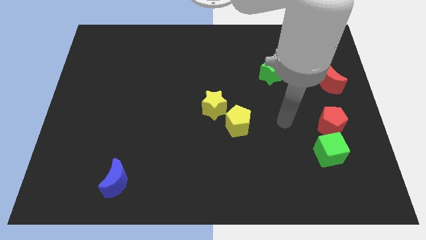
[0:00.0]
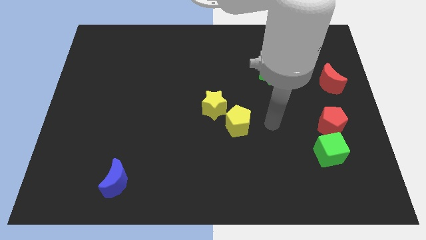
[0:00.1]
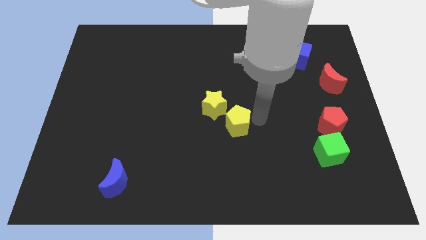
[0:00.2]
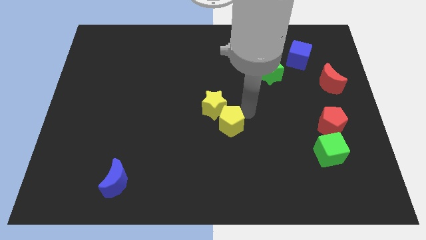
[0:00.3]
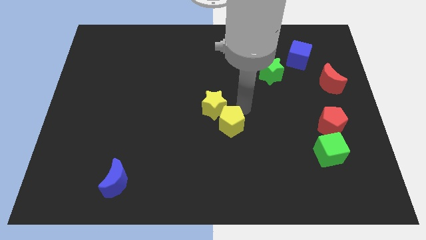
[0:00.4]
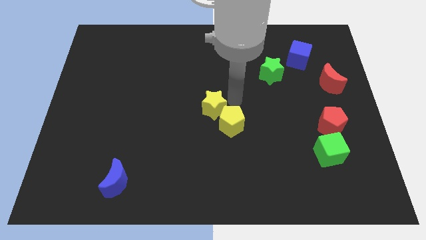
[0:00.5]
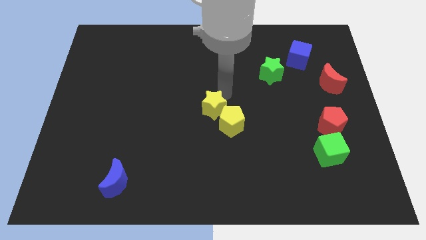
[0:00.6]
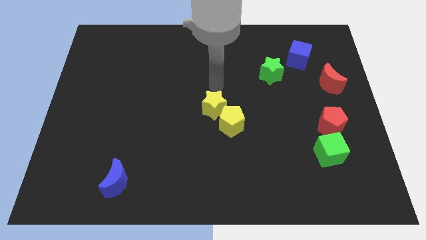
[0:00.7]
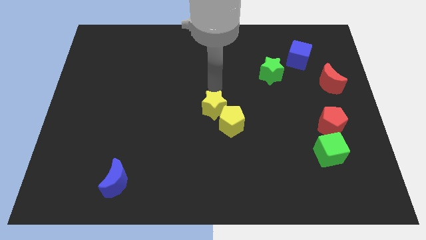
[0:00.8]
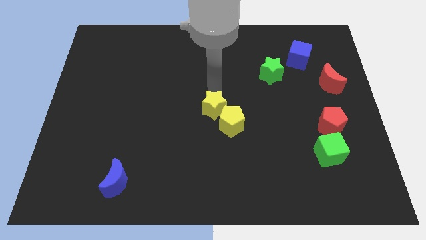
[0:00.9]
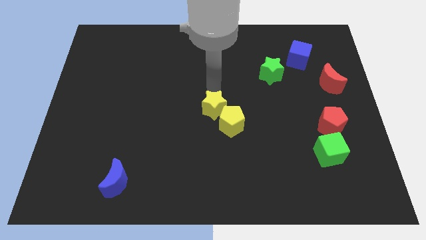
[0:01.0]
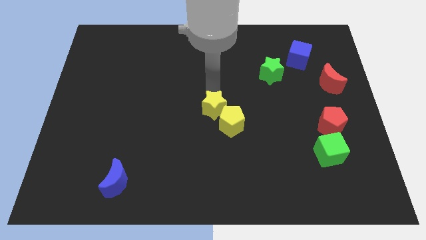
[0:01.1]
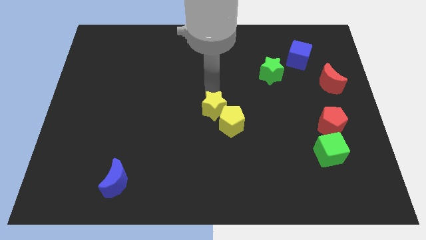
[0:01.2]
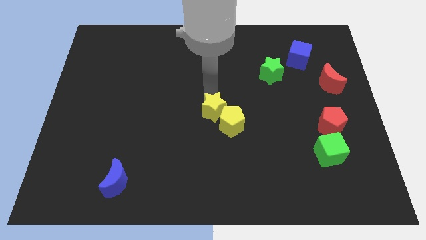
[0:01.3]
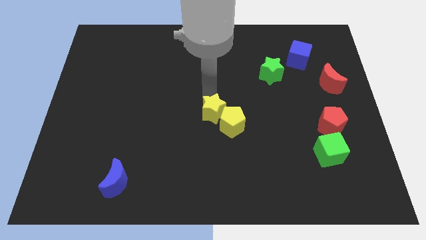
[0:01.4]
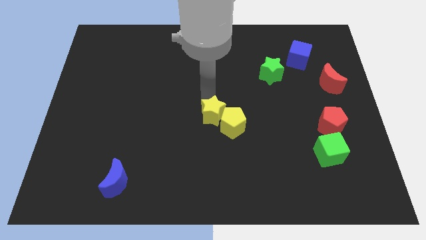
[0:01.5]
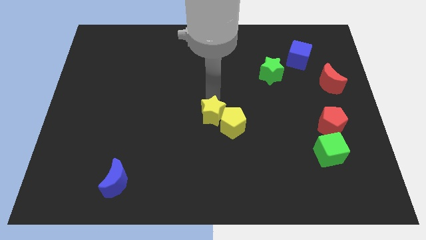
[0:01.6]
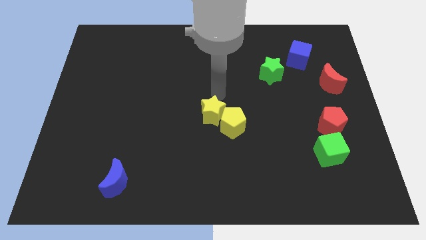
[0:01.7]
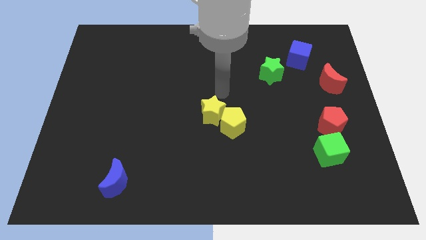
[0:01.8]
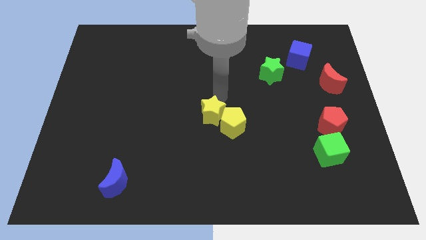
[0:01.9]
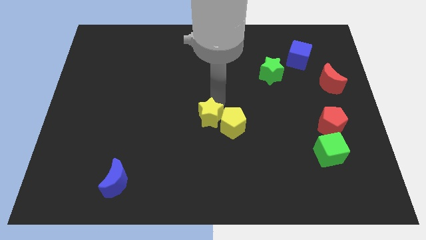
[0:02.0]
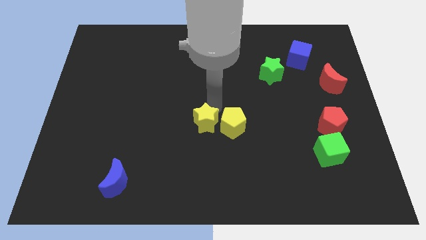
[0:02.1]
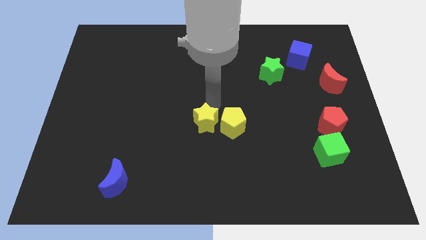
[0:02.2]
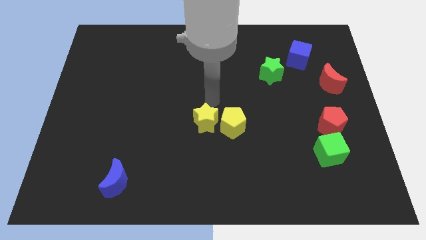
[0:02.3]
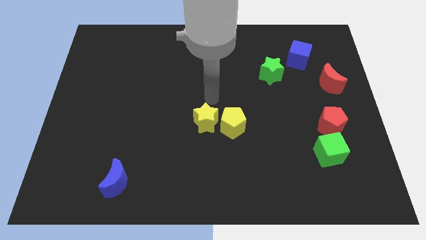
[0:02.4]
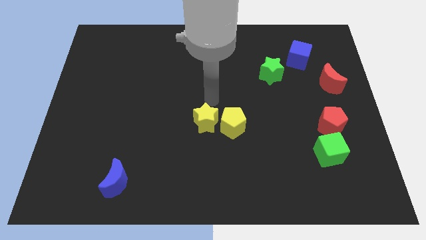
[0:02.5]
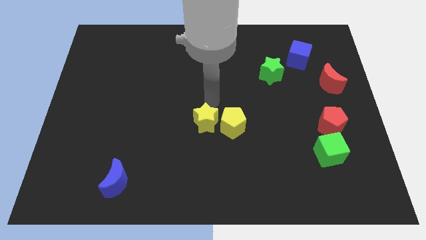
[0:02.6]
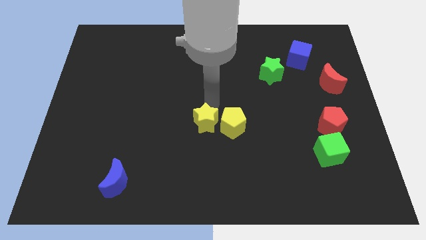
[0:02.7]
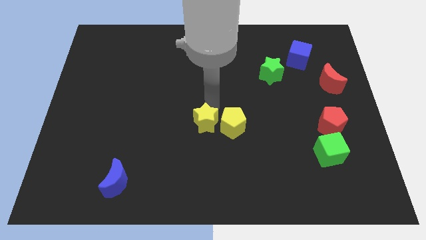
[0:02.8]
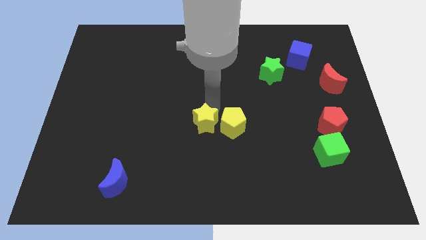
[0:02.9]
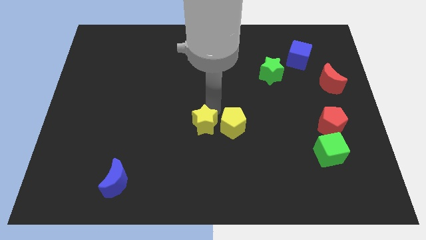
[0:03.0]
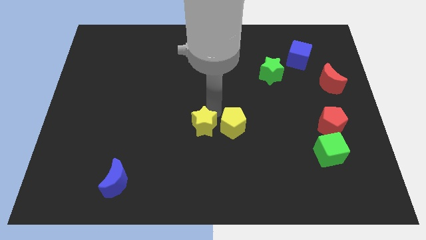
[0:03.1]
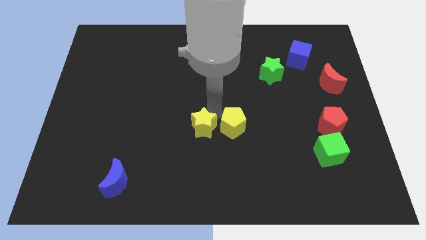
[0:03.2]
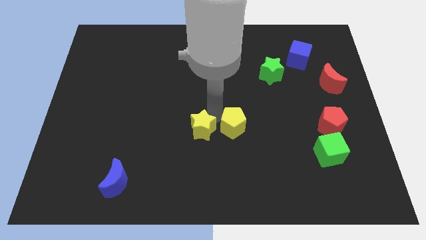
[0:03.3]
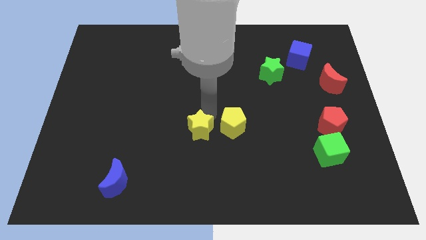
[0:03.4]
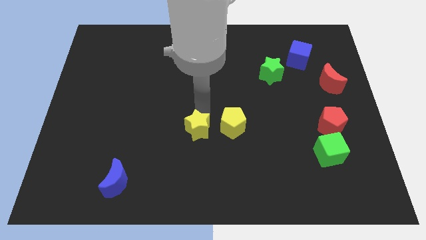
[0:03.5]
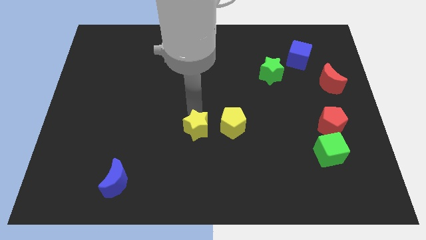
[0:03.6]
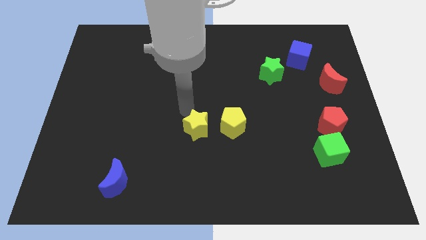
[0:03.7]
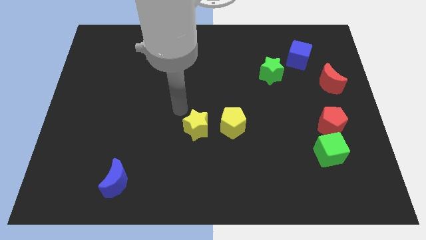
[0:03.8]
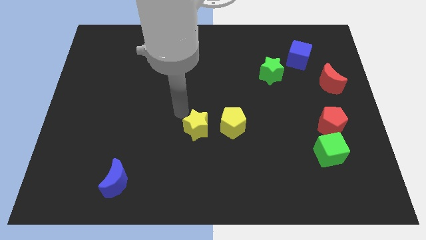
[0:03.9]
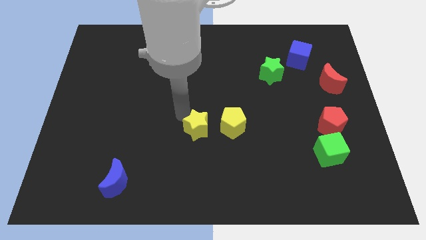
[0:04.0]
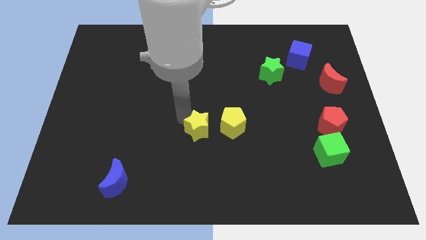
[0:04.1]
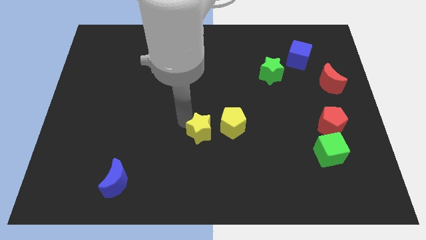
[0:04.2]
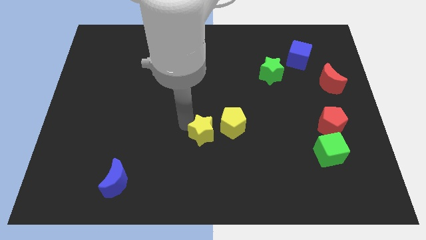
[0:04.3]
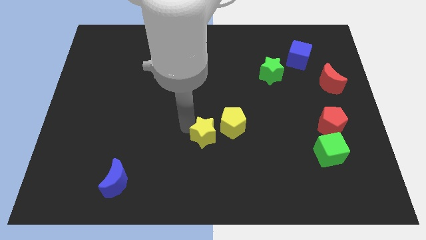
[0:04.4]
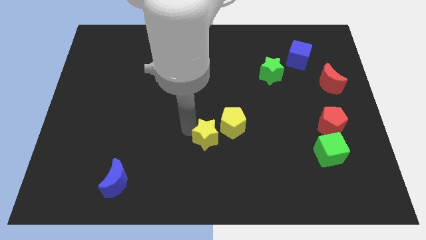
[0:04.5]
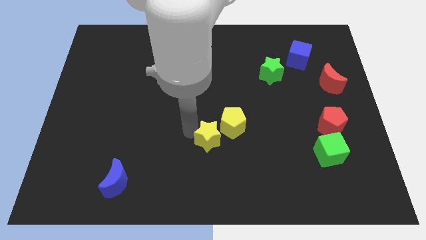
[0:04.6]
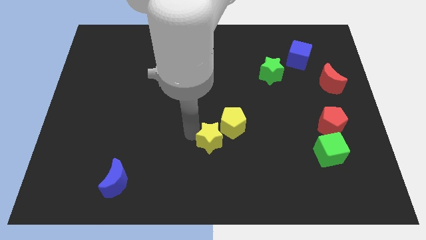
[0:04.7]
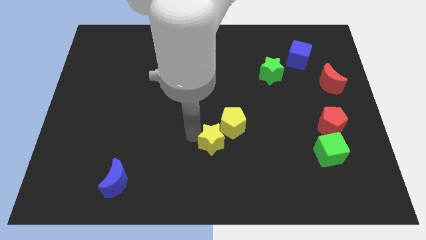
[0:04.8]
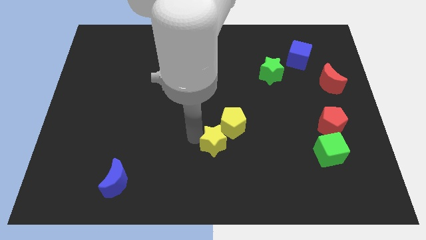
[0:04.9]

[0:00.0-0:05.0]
push the yellow star below the yellow pentagon

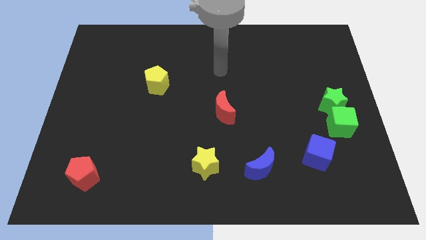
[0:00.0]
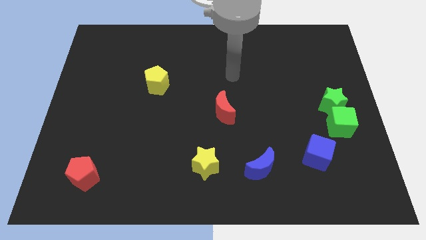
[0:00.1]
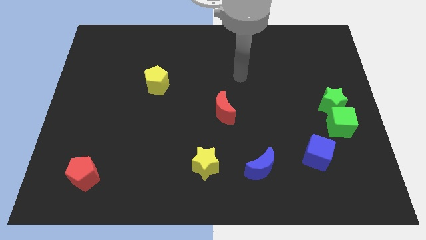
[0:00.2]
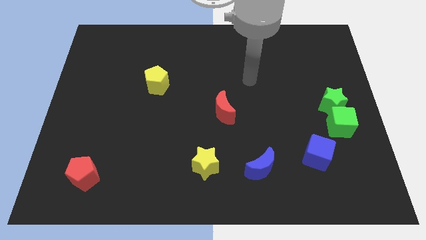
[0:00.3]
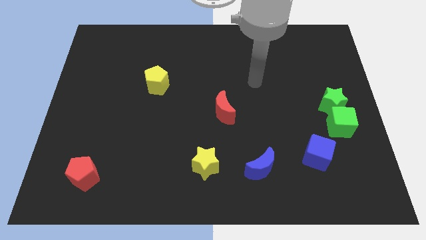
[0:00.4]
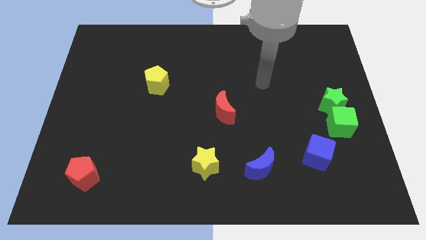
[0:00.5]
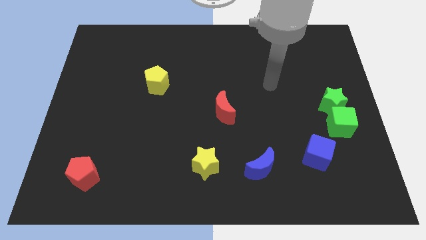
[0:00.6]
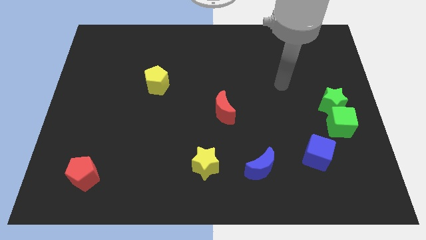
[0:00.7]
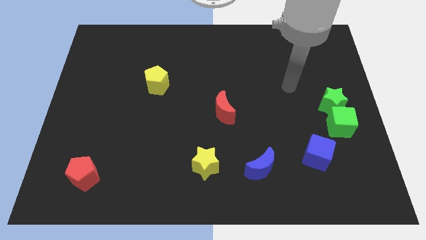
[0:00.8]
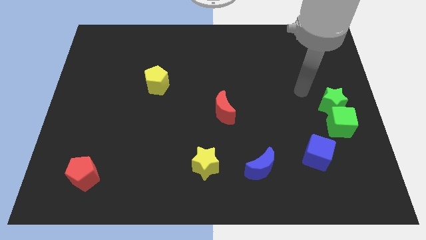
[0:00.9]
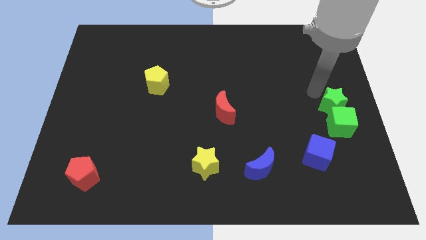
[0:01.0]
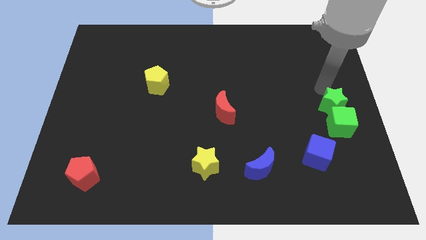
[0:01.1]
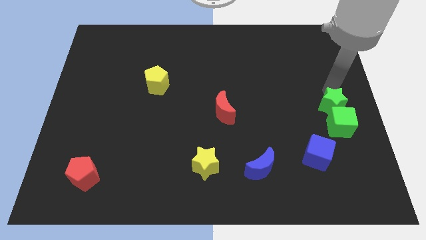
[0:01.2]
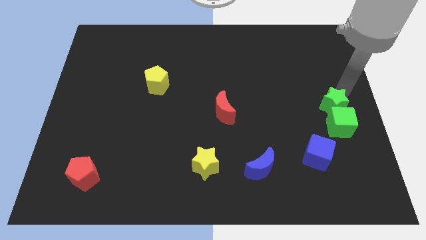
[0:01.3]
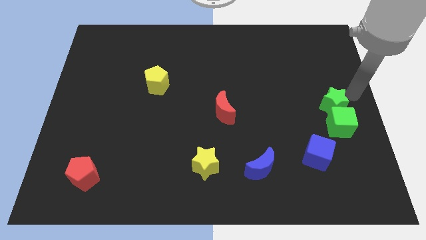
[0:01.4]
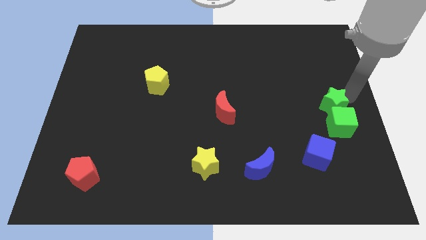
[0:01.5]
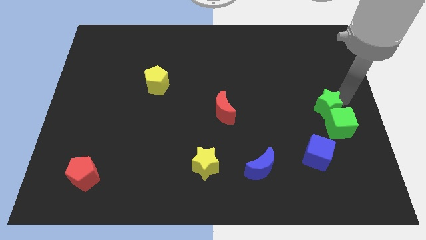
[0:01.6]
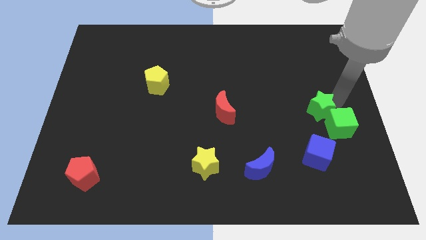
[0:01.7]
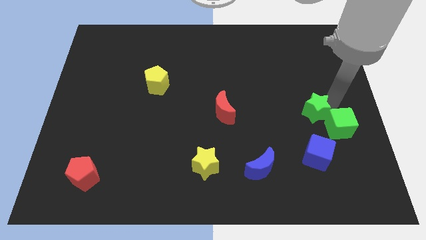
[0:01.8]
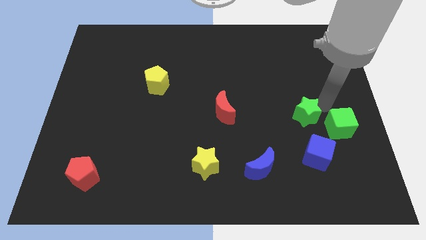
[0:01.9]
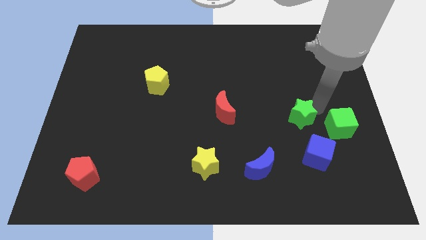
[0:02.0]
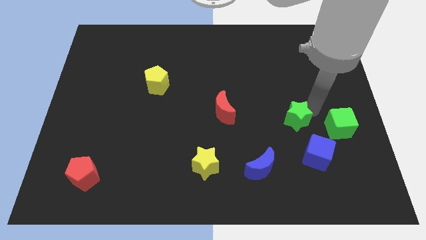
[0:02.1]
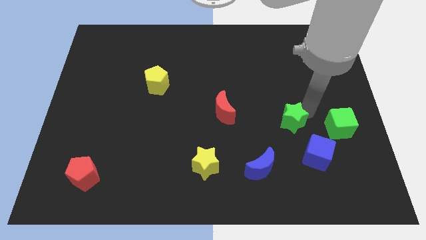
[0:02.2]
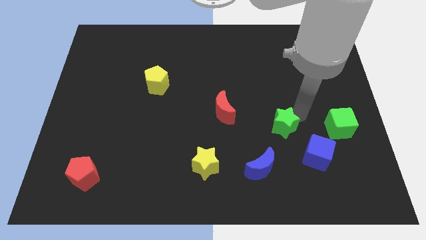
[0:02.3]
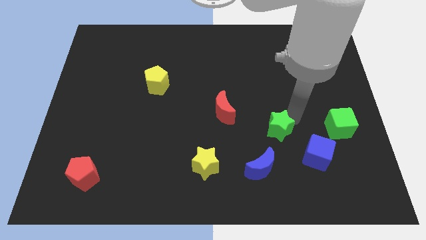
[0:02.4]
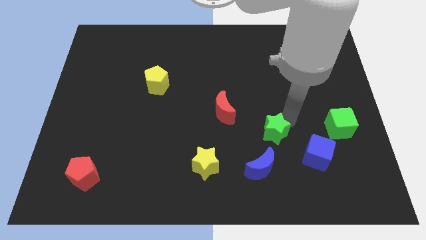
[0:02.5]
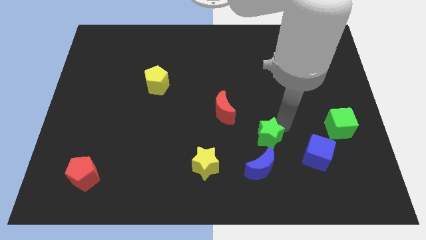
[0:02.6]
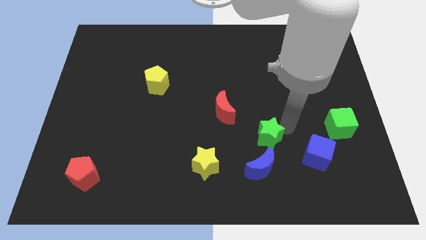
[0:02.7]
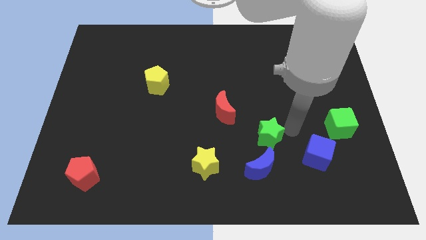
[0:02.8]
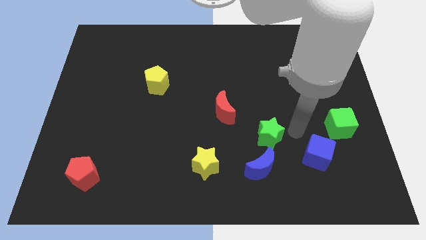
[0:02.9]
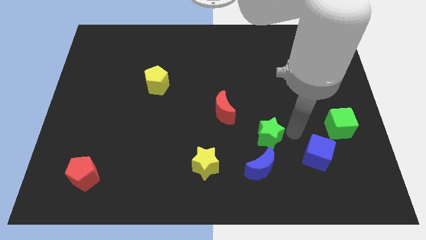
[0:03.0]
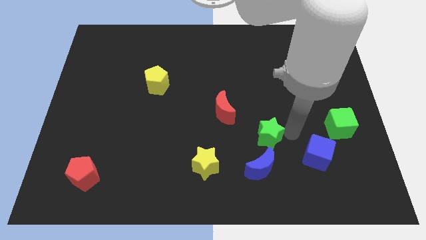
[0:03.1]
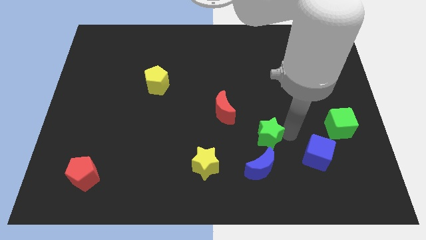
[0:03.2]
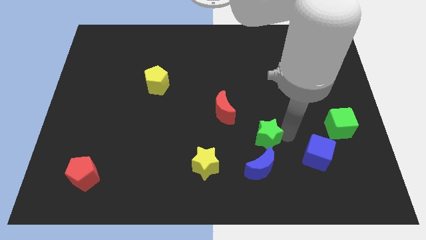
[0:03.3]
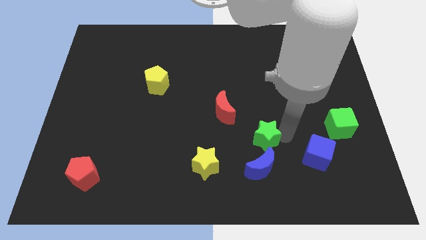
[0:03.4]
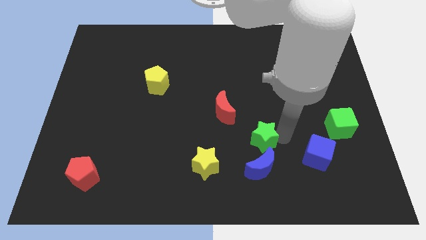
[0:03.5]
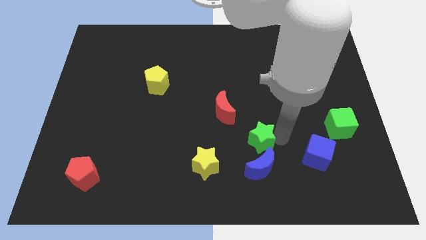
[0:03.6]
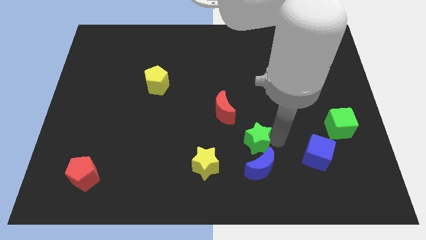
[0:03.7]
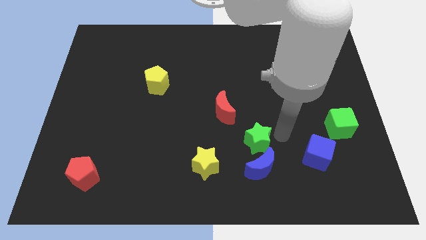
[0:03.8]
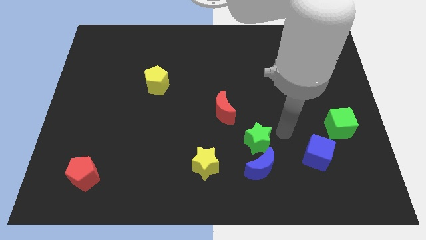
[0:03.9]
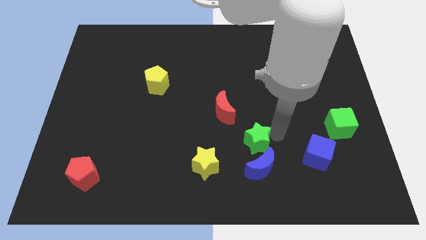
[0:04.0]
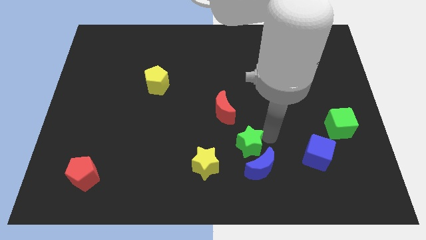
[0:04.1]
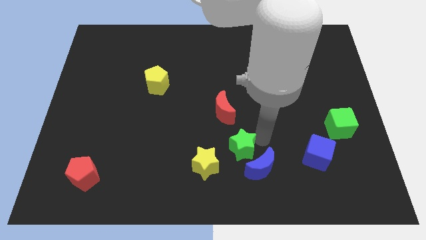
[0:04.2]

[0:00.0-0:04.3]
put the green star to the bottom side of the red moon
